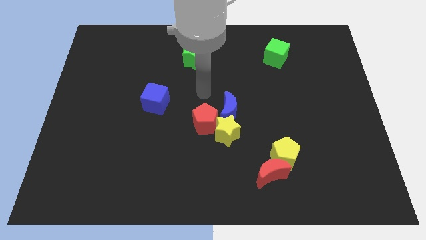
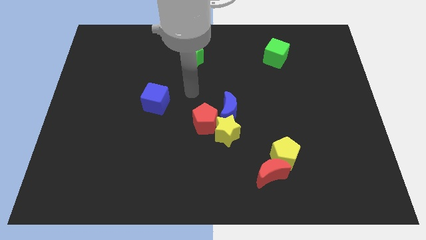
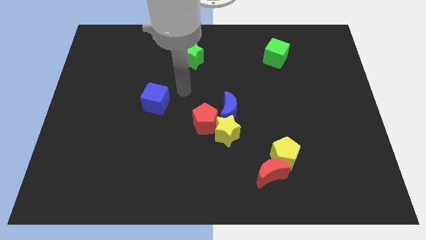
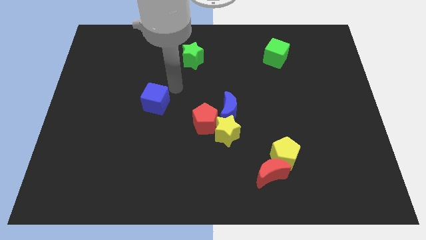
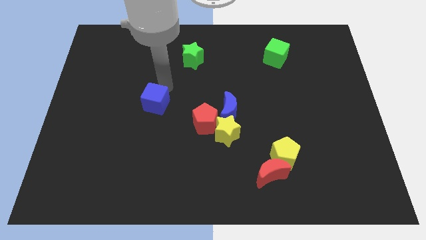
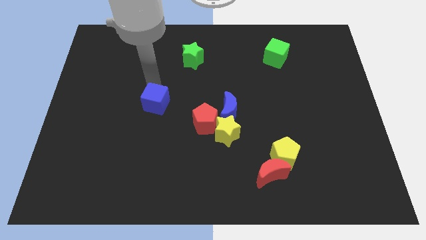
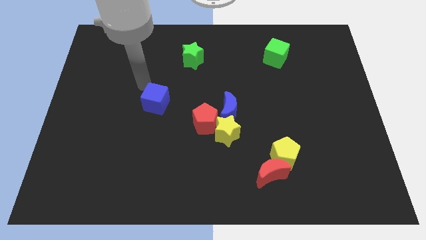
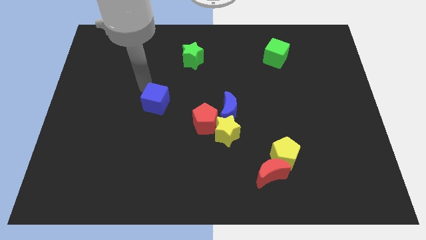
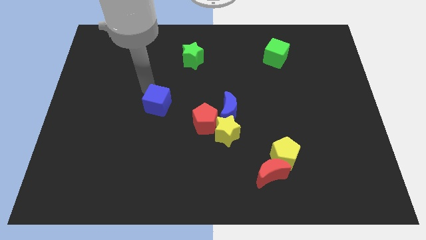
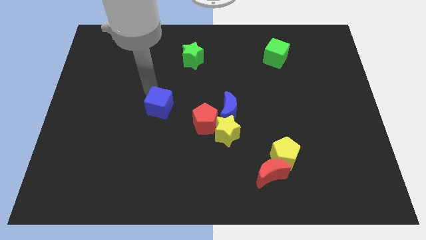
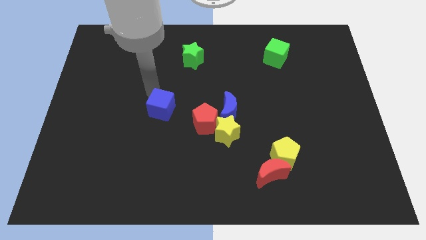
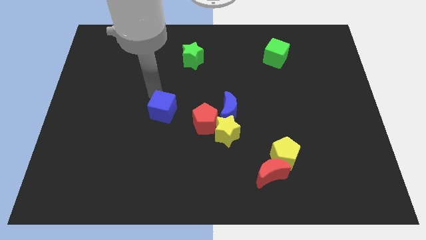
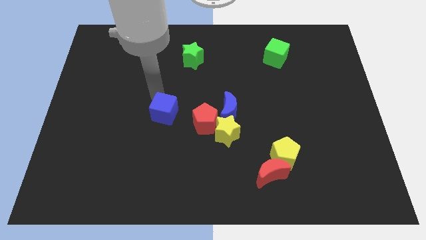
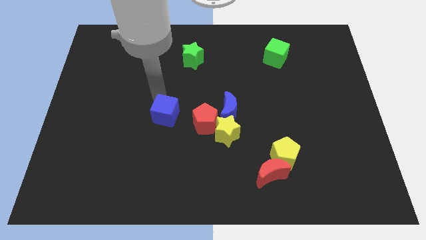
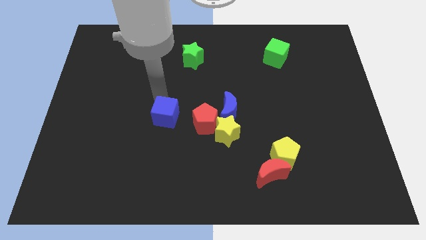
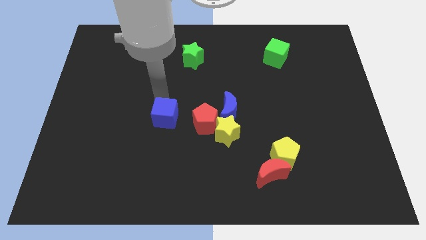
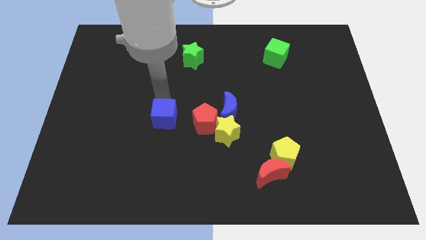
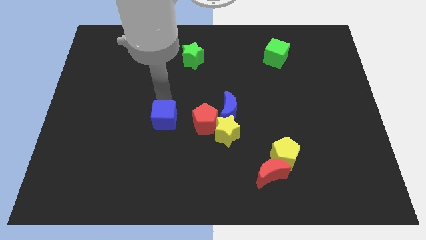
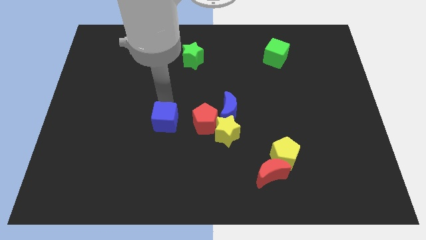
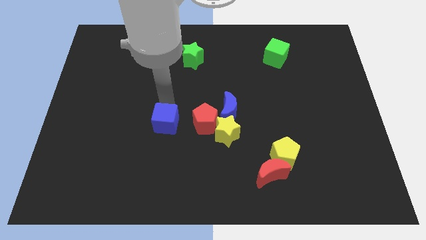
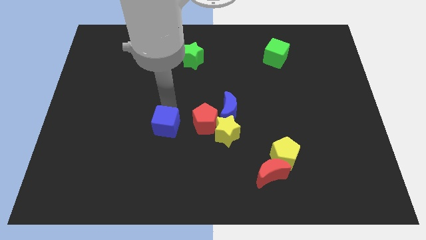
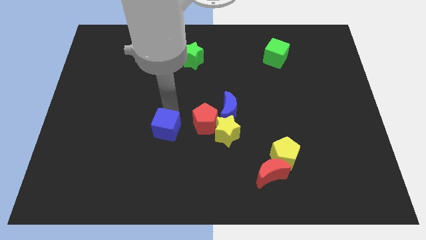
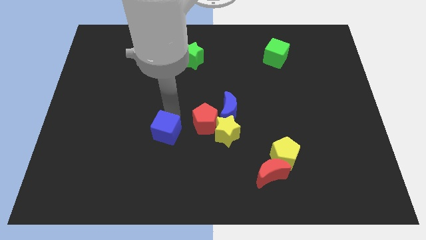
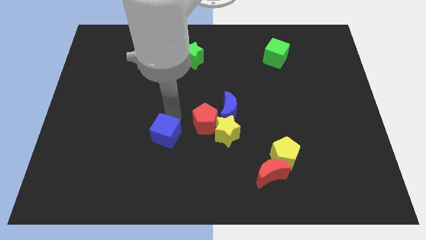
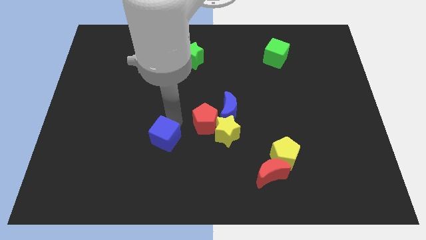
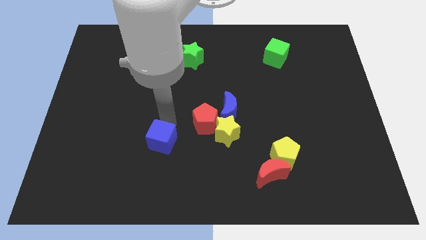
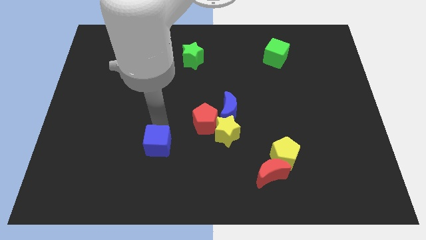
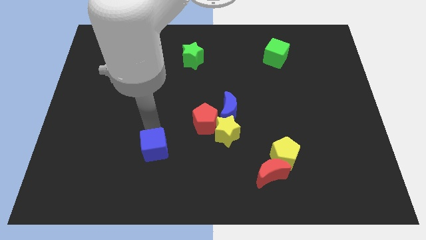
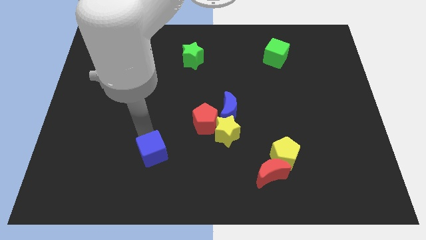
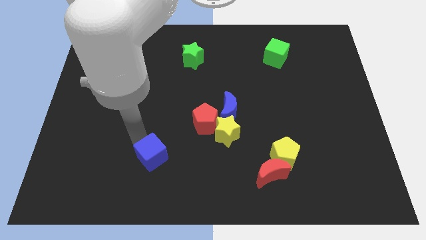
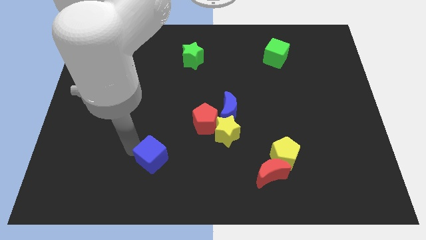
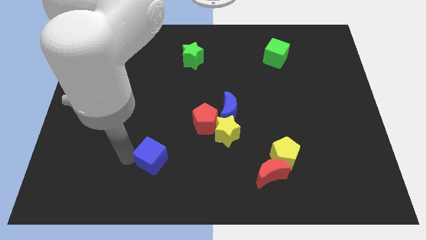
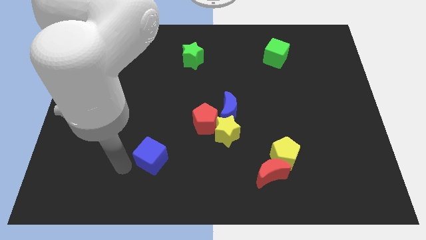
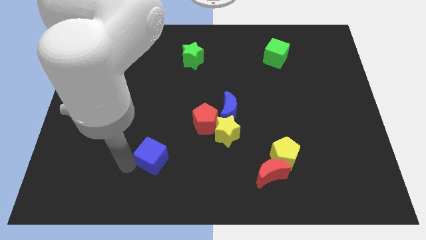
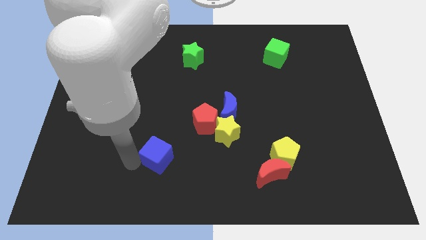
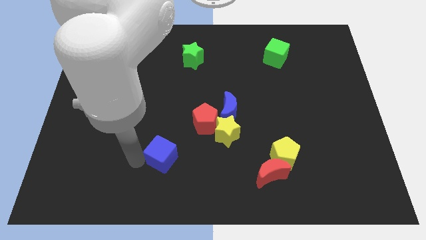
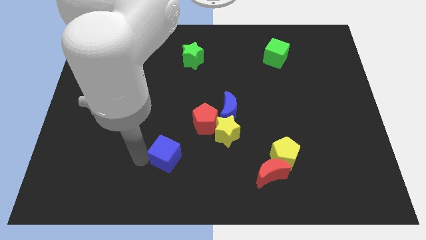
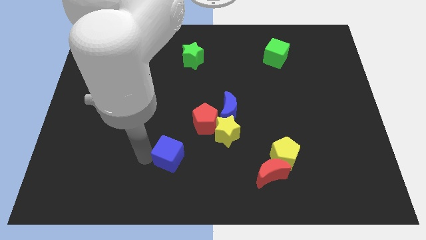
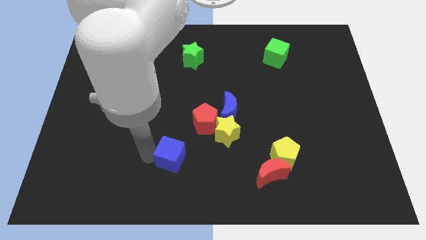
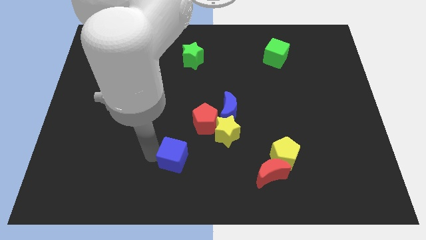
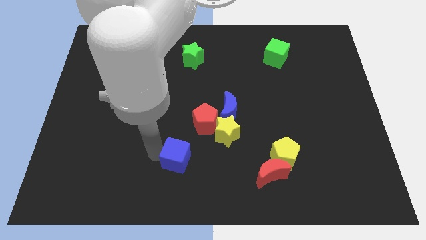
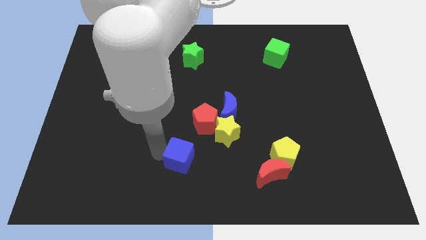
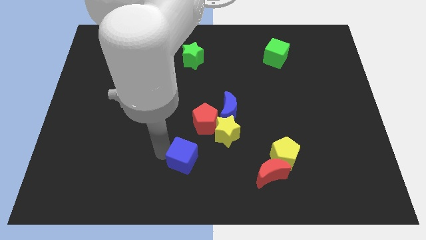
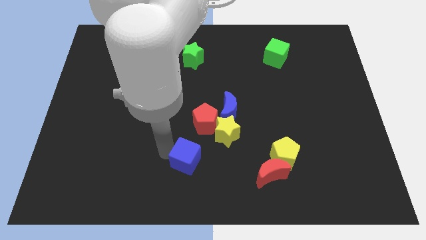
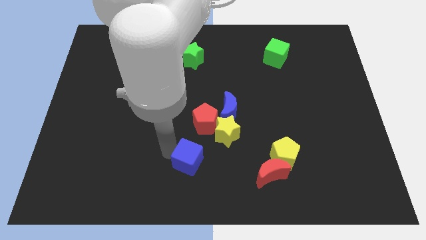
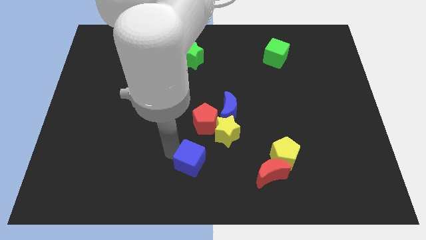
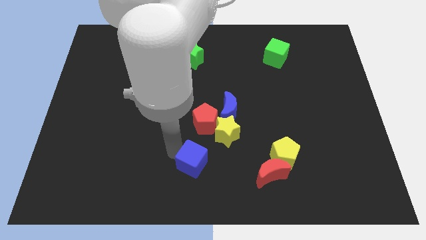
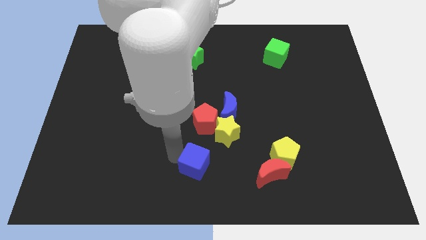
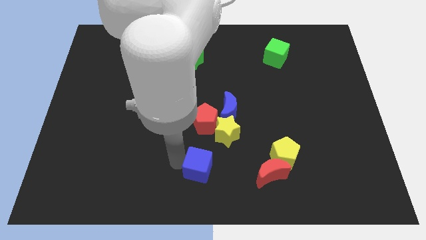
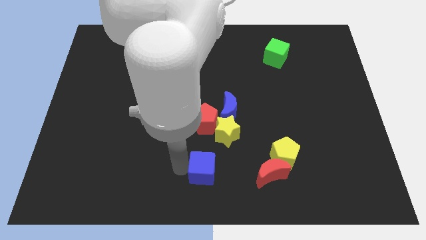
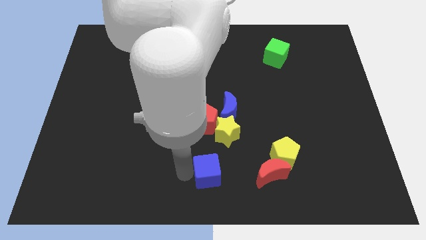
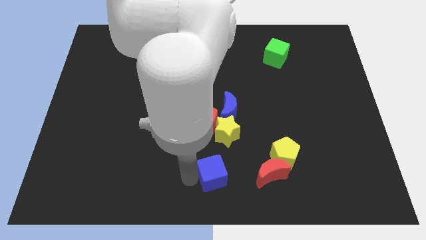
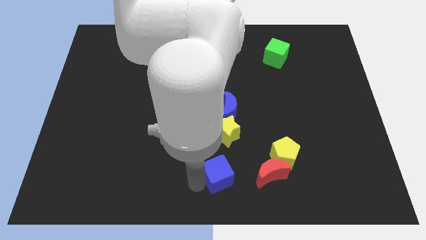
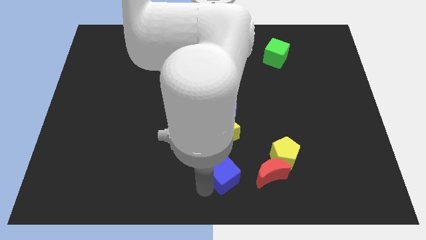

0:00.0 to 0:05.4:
slide the blue cube to the left of the yellow pentagon

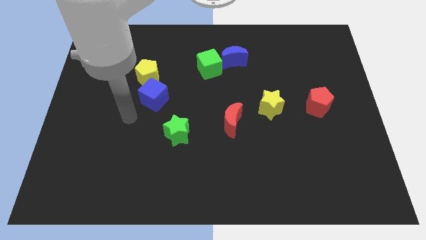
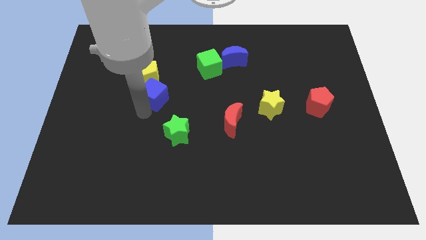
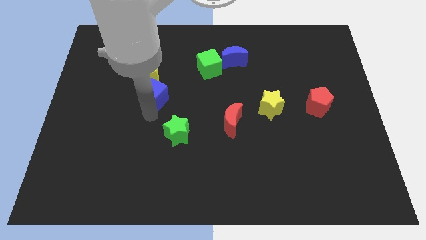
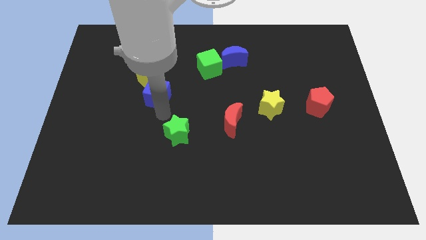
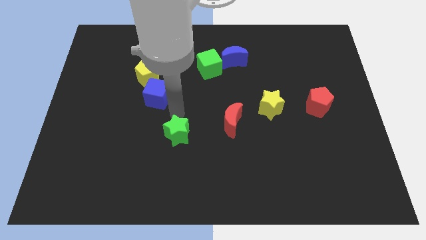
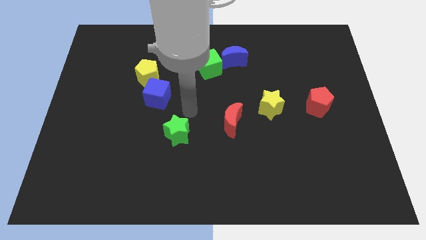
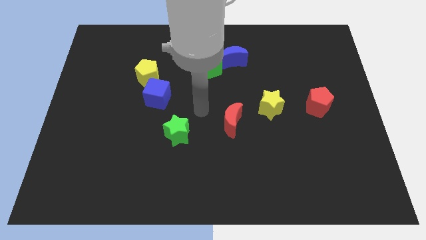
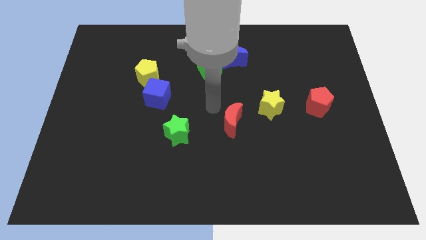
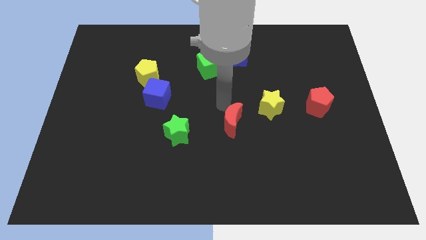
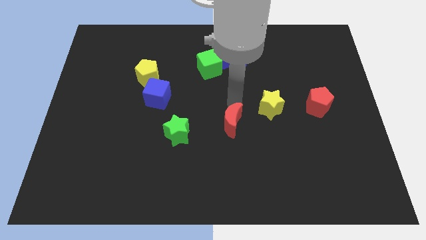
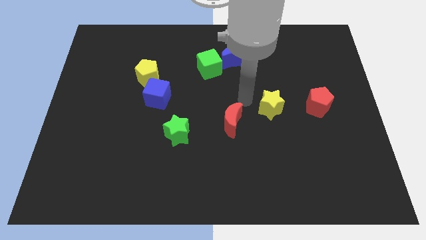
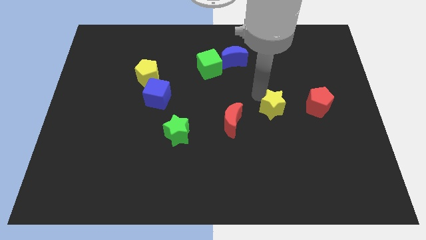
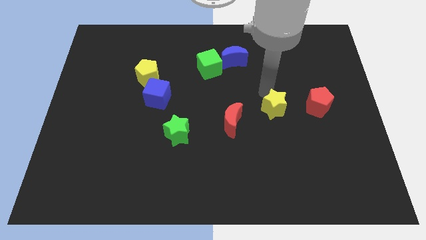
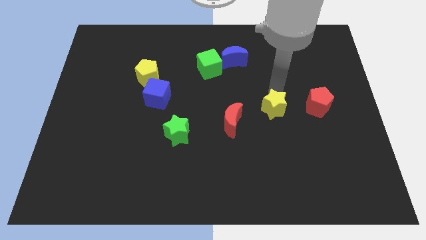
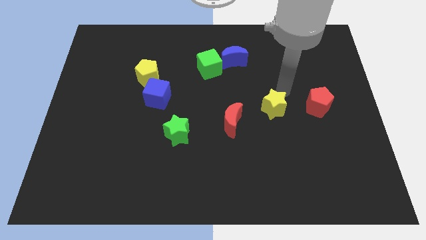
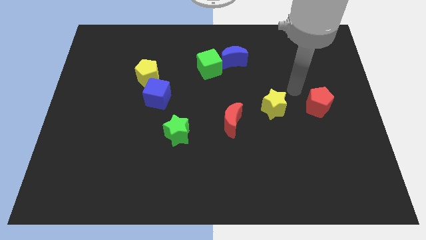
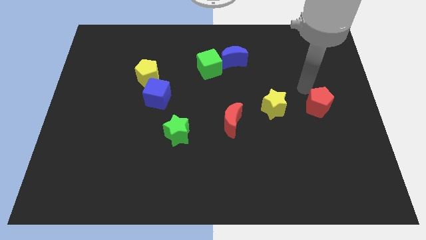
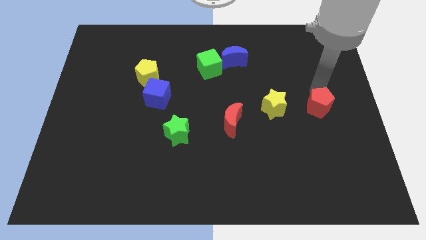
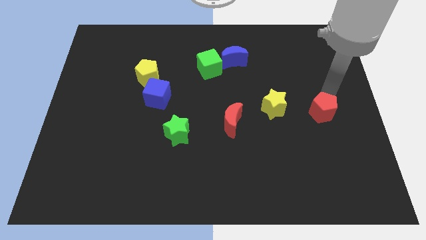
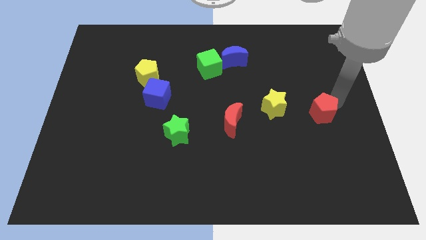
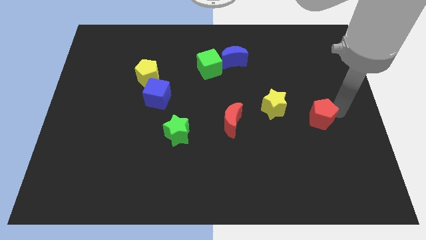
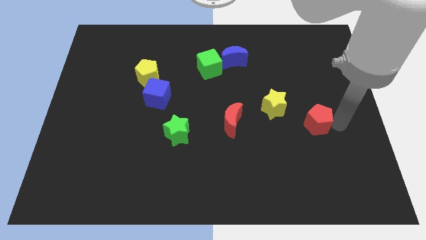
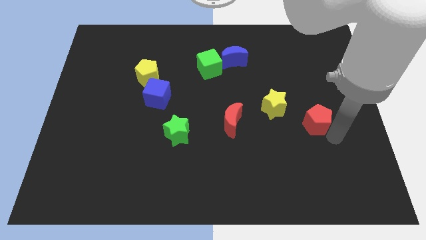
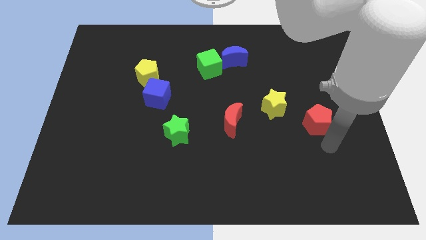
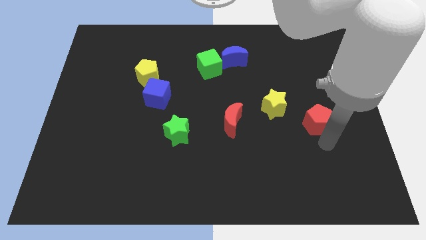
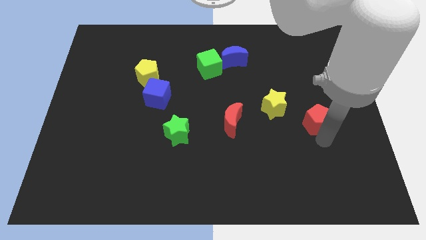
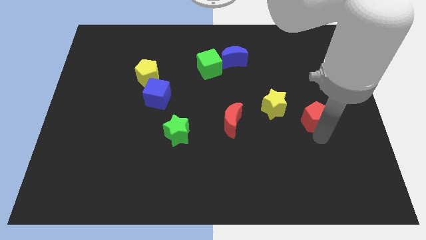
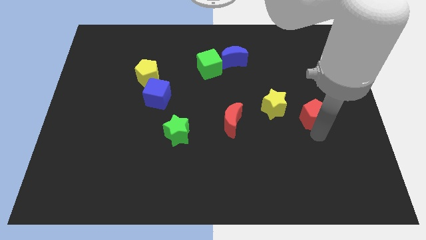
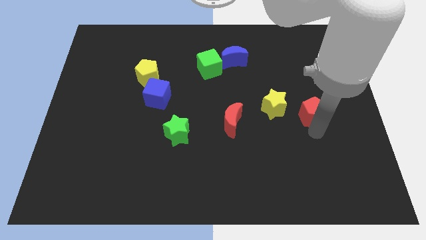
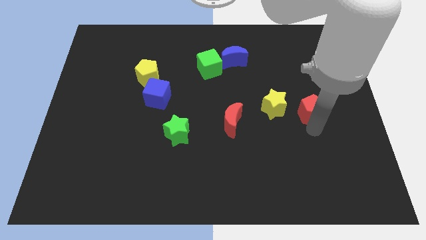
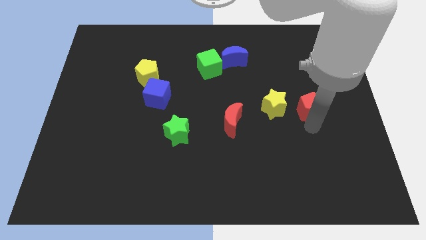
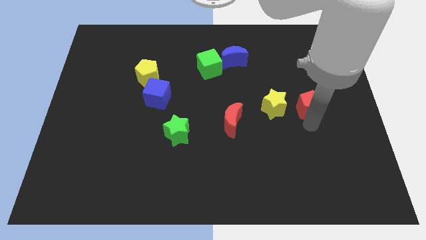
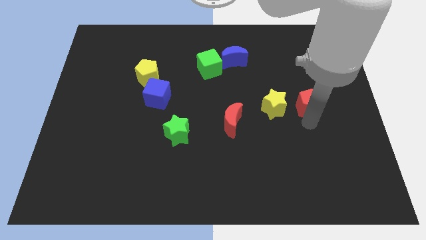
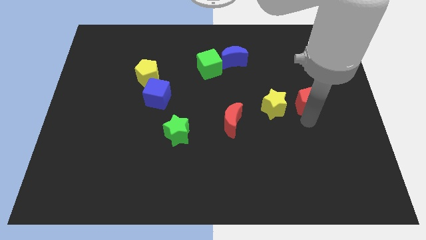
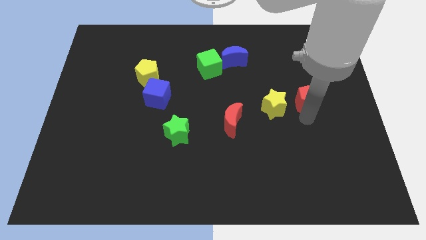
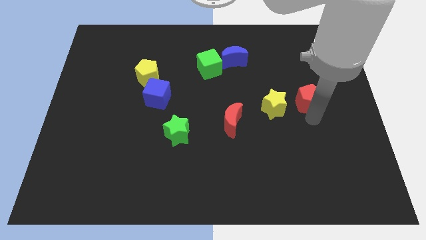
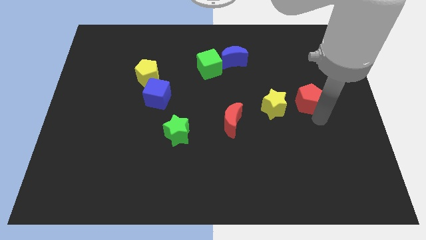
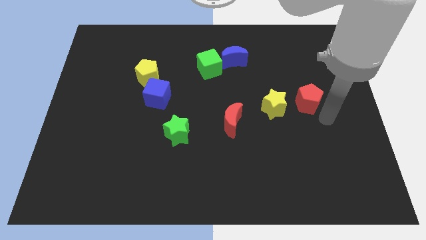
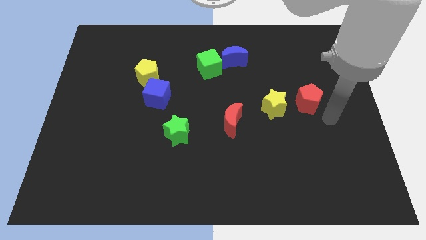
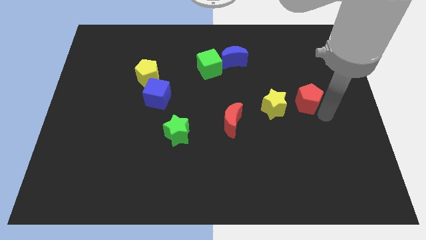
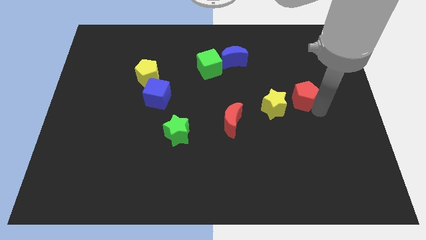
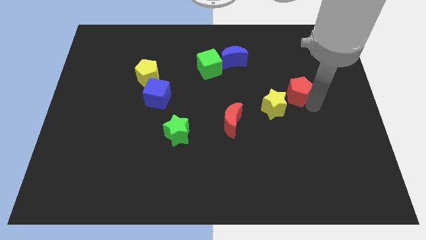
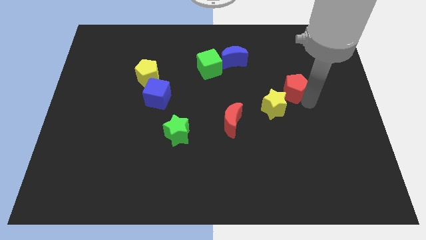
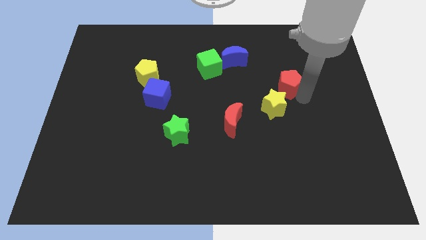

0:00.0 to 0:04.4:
put the red pentagon above the yellow star
